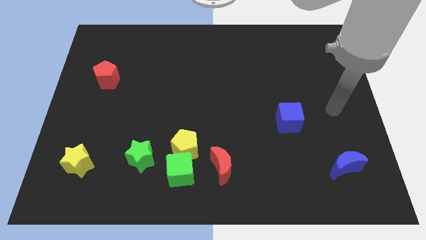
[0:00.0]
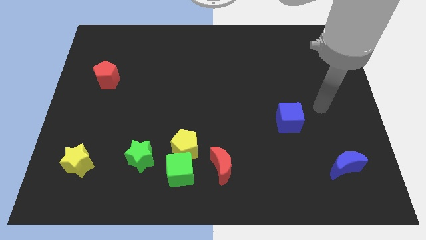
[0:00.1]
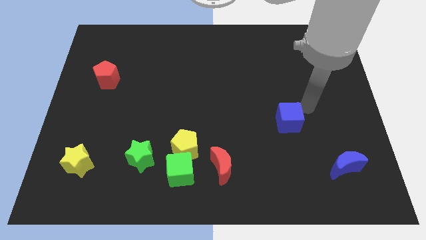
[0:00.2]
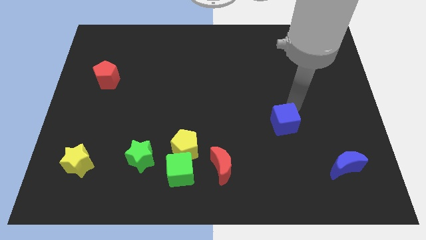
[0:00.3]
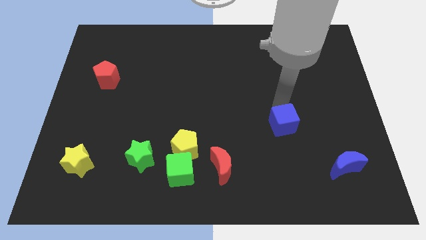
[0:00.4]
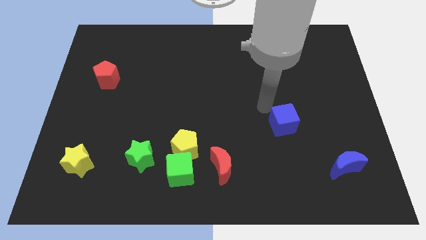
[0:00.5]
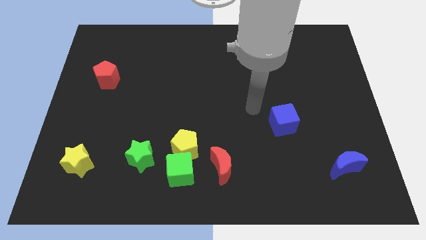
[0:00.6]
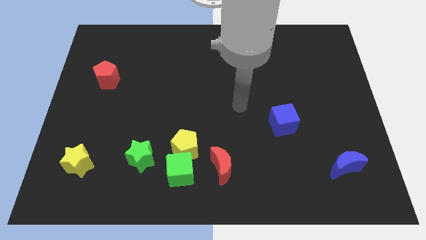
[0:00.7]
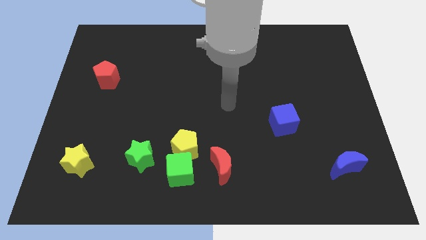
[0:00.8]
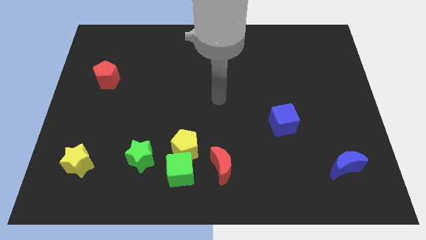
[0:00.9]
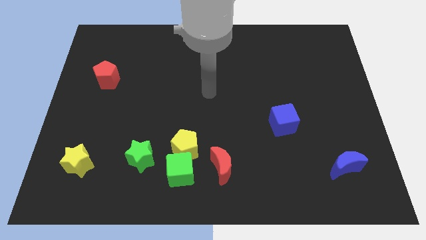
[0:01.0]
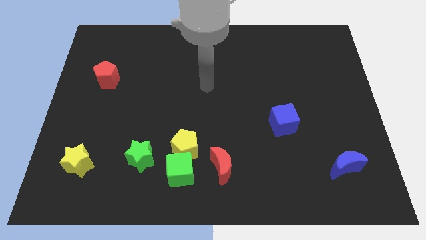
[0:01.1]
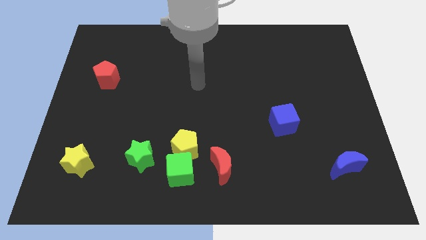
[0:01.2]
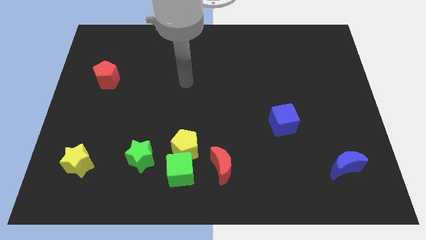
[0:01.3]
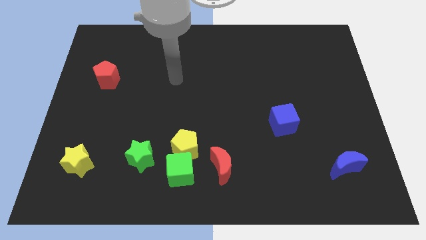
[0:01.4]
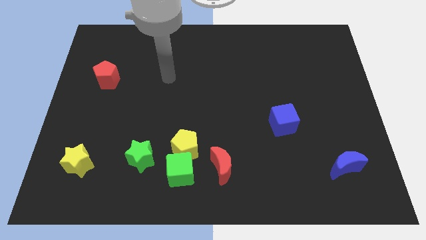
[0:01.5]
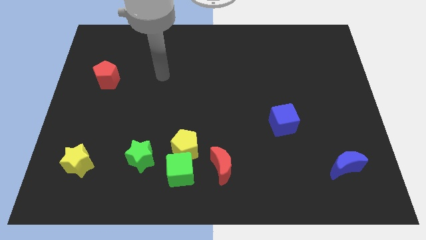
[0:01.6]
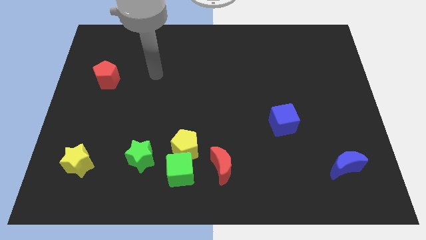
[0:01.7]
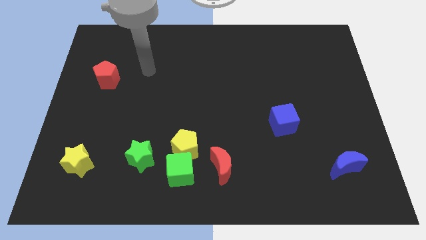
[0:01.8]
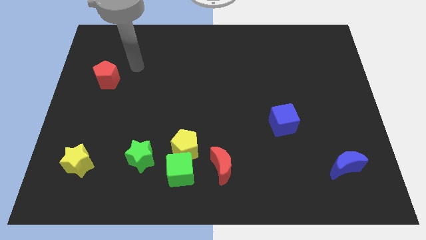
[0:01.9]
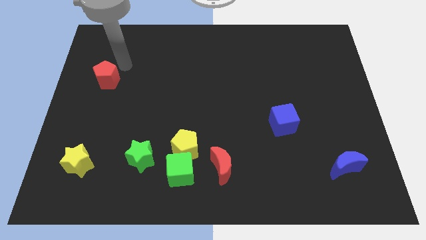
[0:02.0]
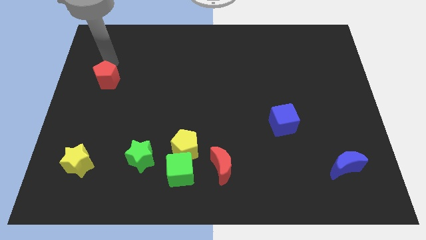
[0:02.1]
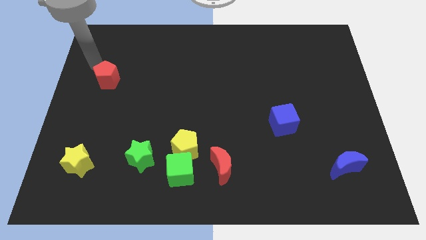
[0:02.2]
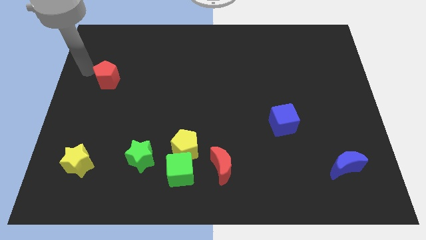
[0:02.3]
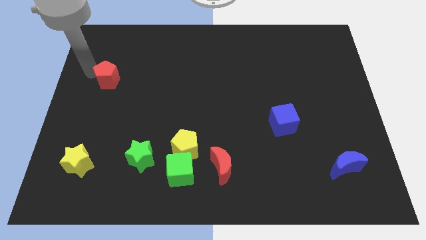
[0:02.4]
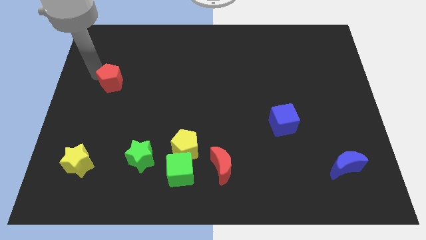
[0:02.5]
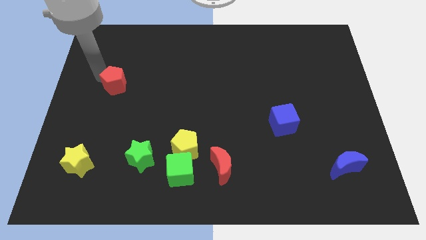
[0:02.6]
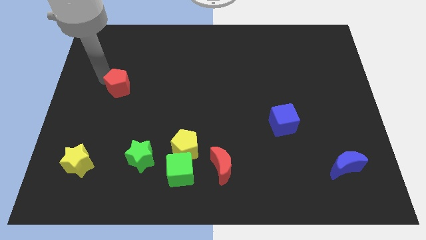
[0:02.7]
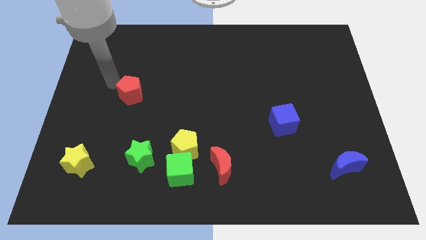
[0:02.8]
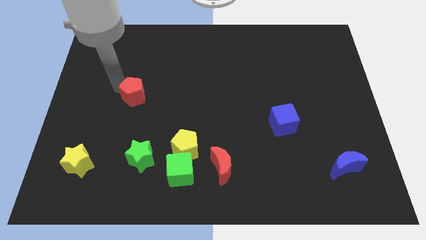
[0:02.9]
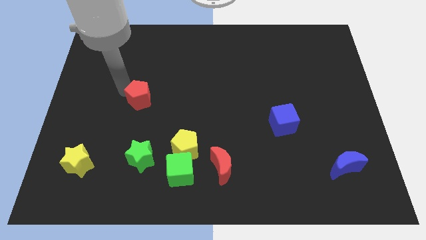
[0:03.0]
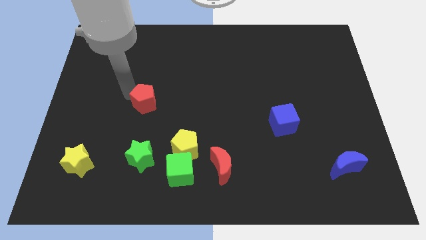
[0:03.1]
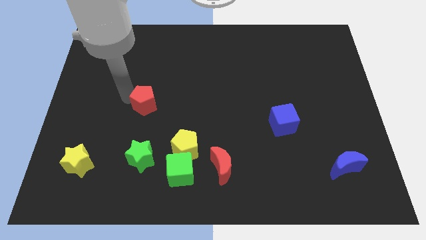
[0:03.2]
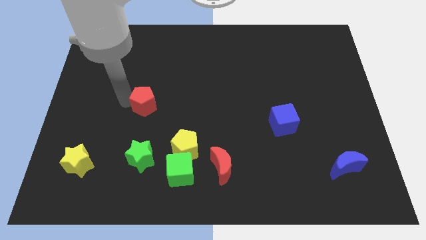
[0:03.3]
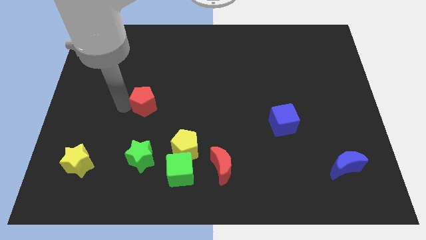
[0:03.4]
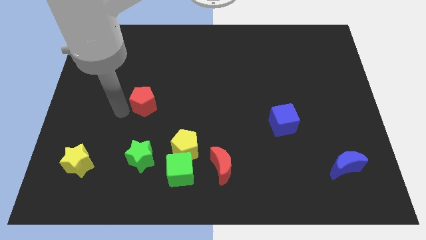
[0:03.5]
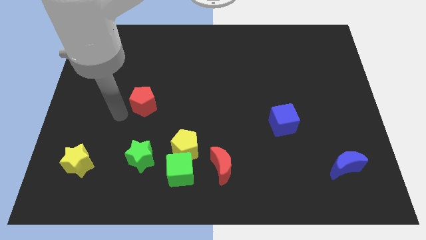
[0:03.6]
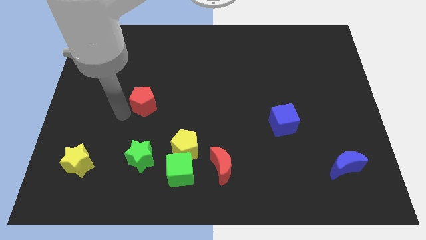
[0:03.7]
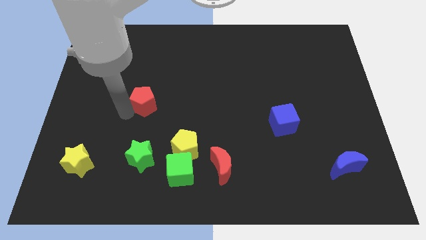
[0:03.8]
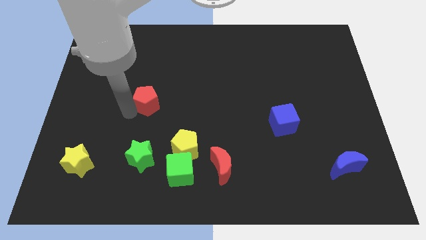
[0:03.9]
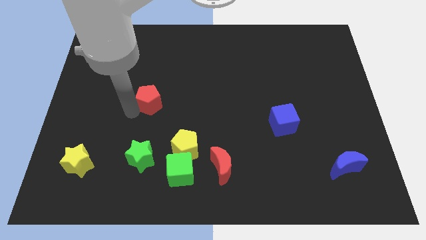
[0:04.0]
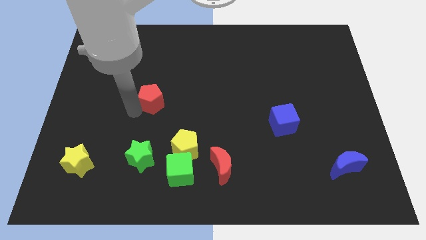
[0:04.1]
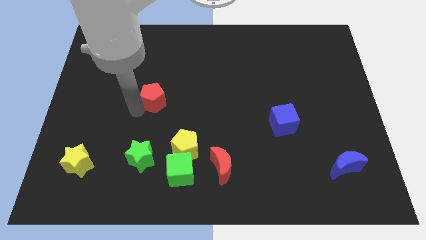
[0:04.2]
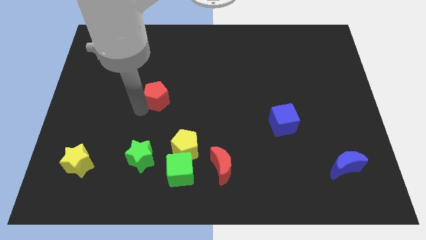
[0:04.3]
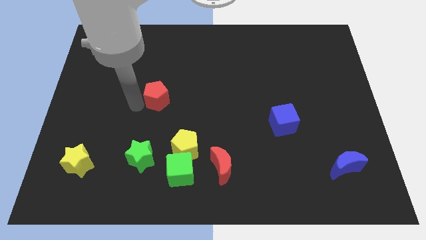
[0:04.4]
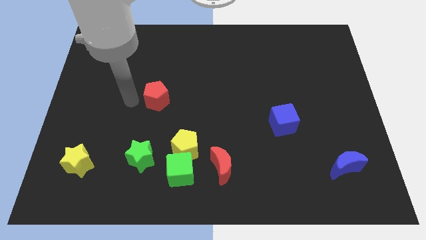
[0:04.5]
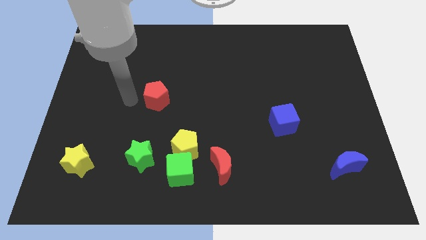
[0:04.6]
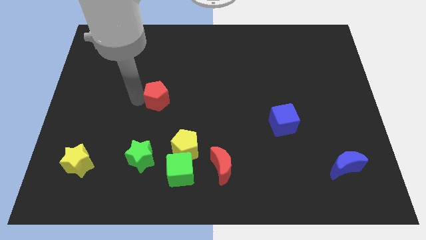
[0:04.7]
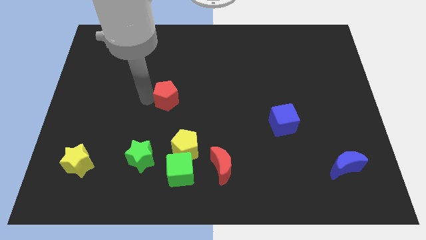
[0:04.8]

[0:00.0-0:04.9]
push the red pentagon to the middle of the board

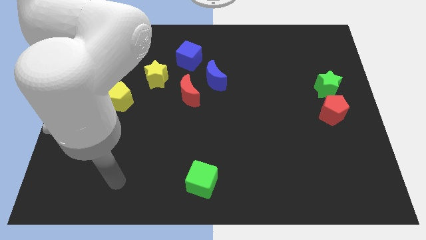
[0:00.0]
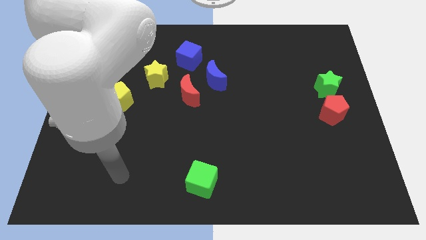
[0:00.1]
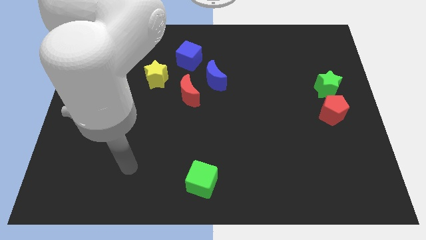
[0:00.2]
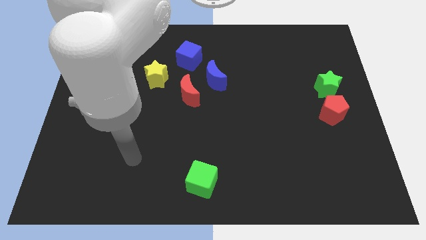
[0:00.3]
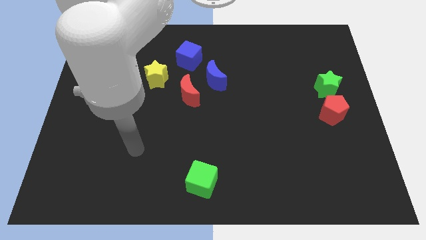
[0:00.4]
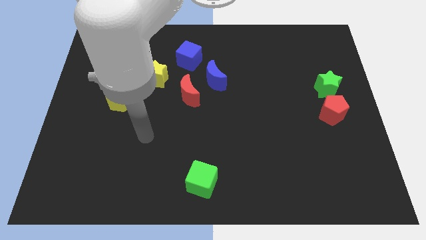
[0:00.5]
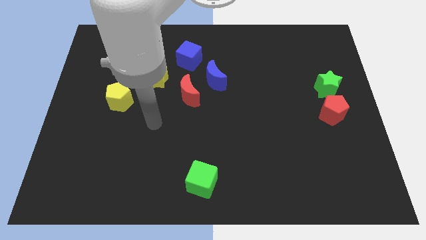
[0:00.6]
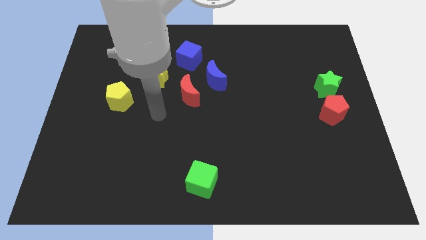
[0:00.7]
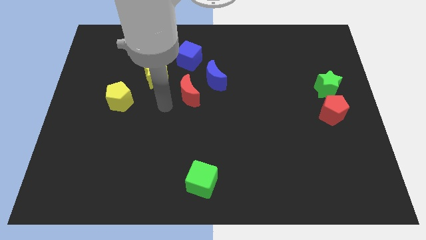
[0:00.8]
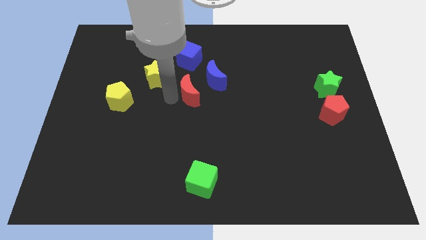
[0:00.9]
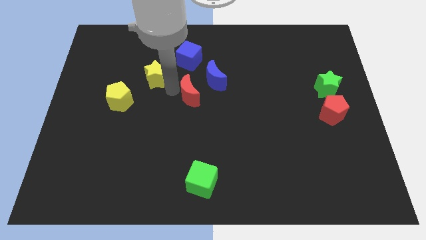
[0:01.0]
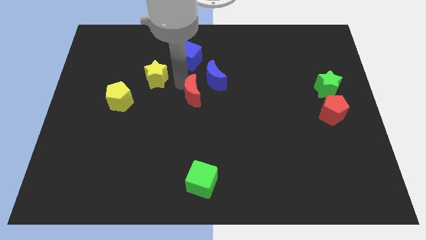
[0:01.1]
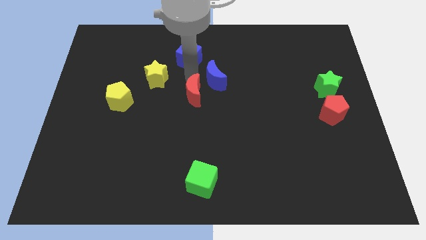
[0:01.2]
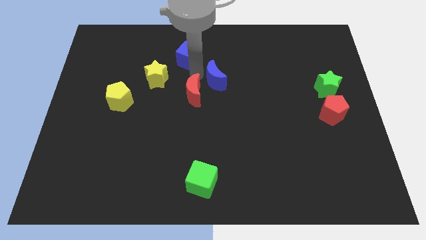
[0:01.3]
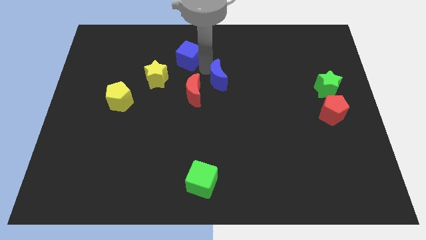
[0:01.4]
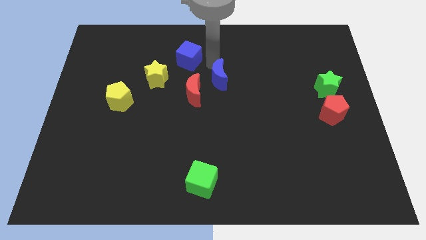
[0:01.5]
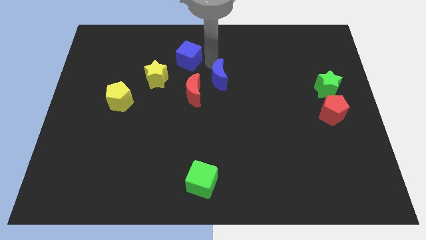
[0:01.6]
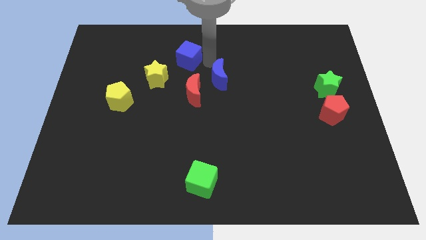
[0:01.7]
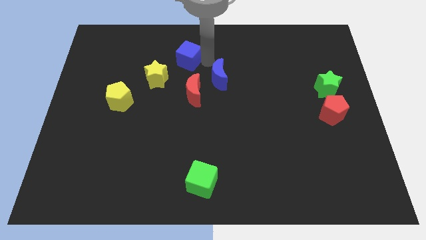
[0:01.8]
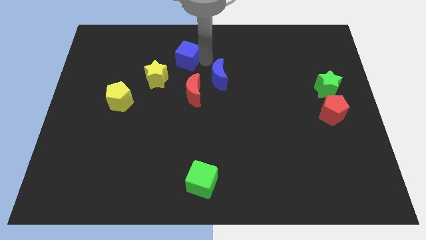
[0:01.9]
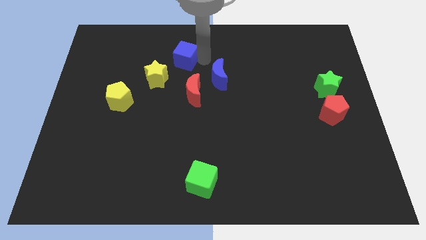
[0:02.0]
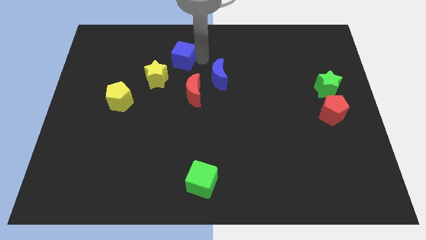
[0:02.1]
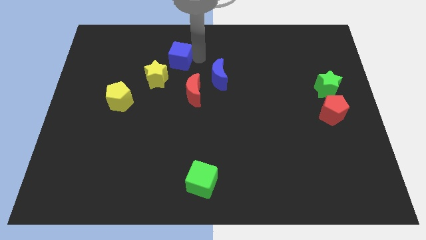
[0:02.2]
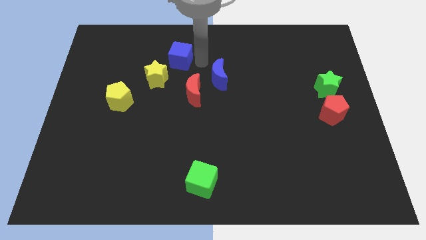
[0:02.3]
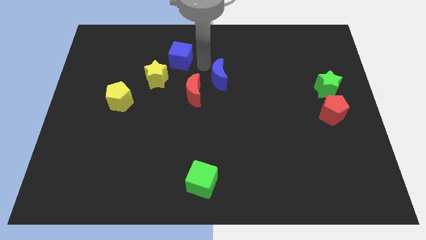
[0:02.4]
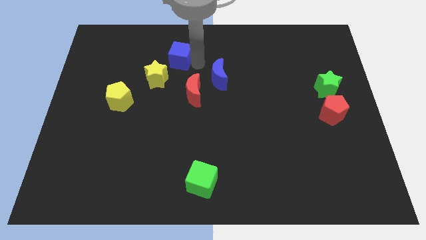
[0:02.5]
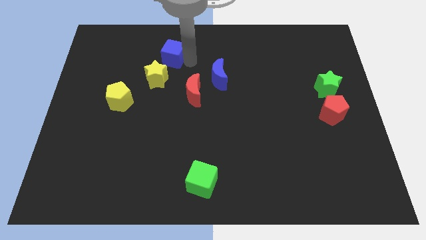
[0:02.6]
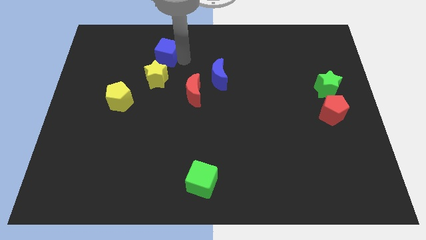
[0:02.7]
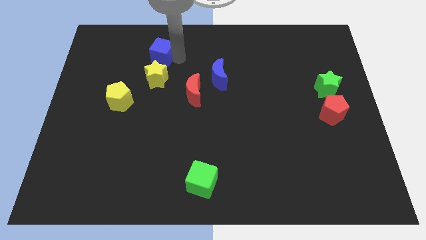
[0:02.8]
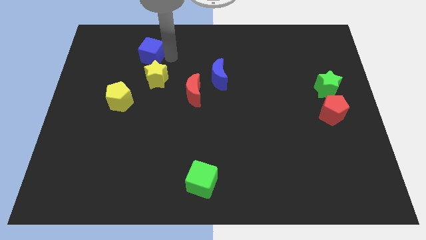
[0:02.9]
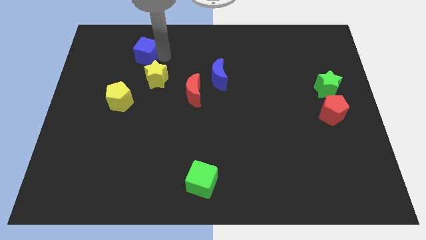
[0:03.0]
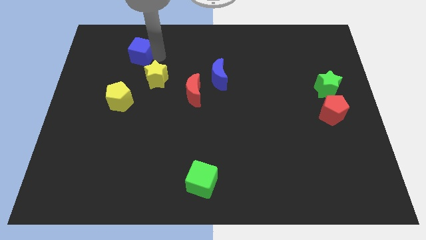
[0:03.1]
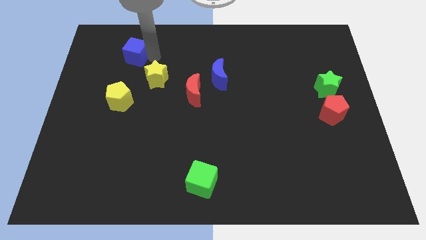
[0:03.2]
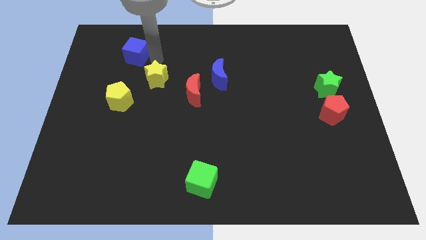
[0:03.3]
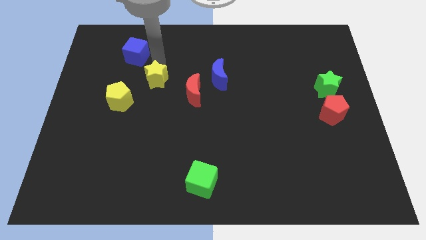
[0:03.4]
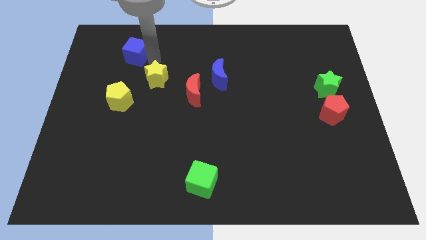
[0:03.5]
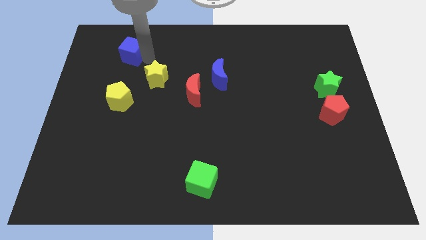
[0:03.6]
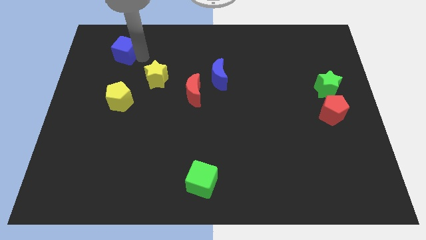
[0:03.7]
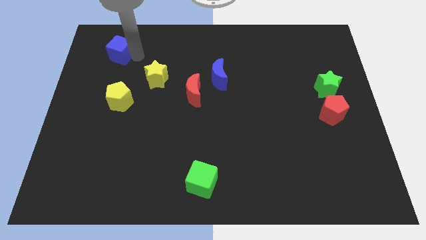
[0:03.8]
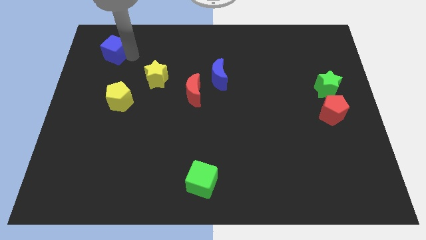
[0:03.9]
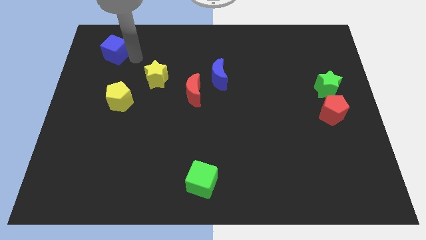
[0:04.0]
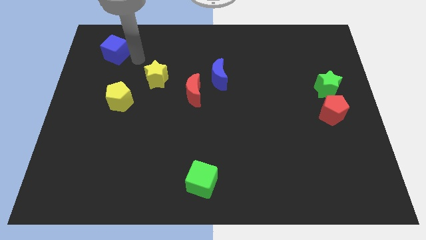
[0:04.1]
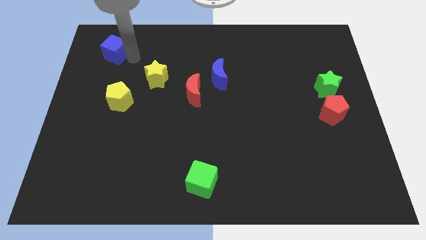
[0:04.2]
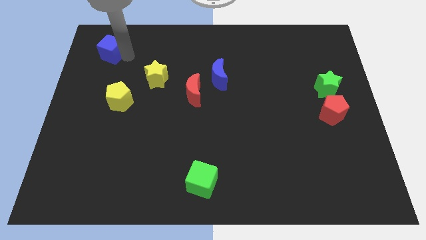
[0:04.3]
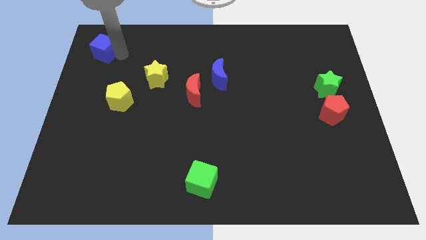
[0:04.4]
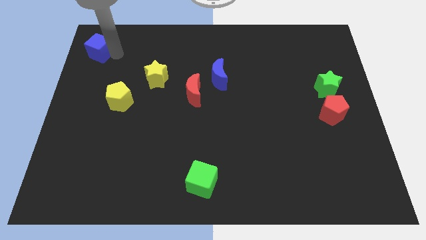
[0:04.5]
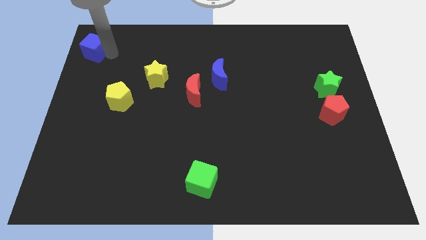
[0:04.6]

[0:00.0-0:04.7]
slide the blue cube to the top left corner
